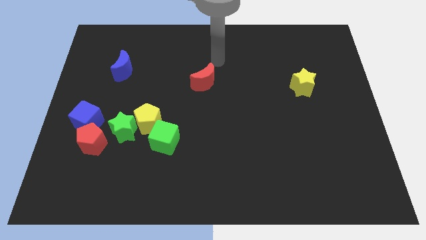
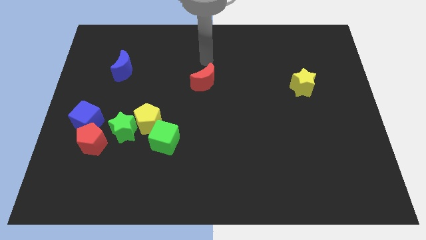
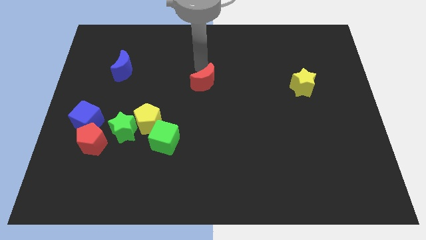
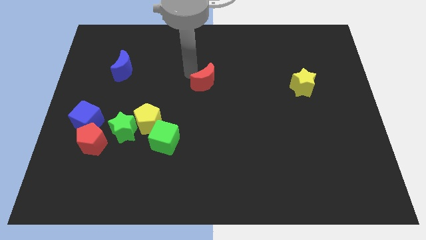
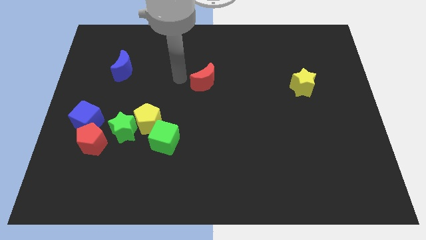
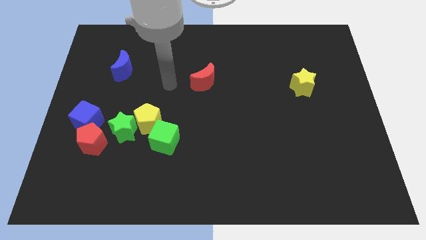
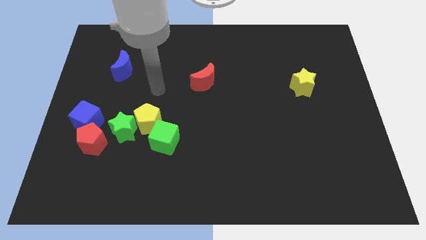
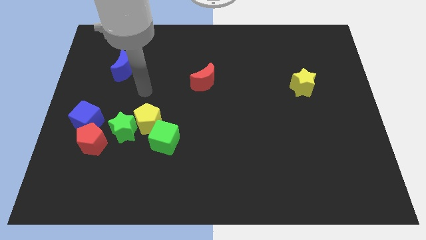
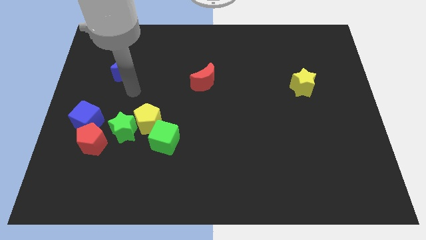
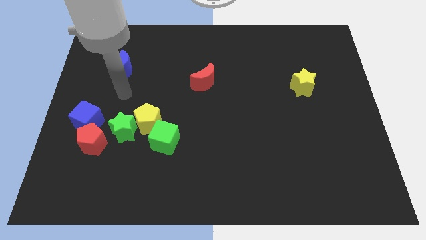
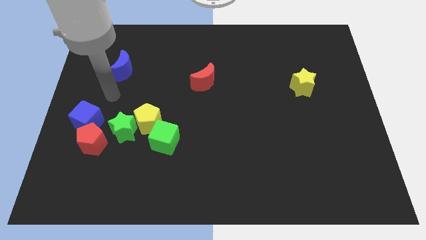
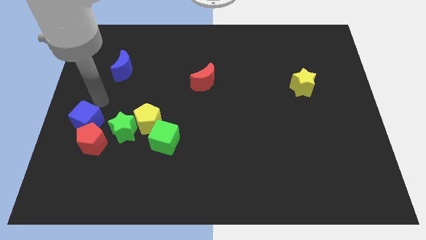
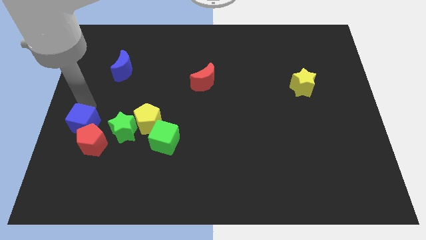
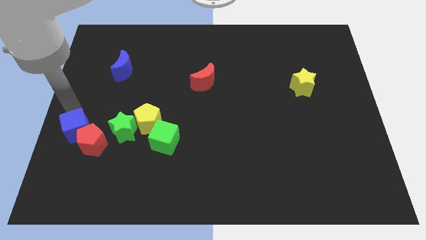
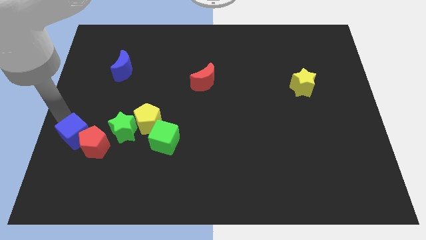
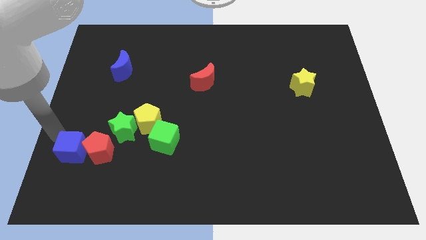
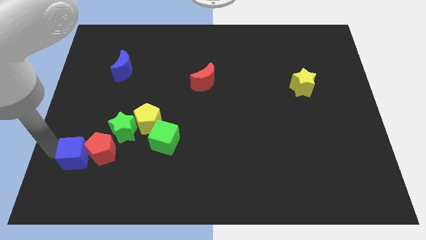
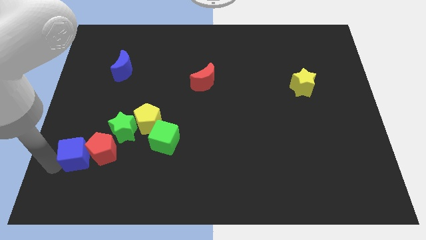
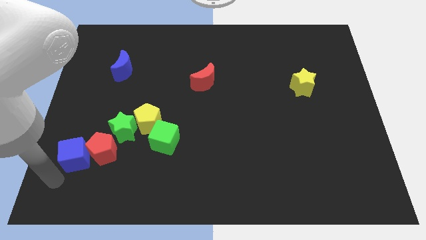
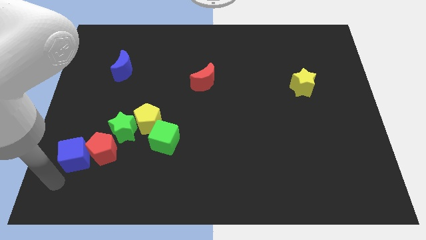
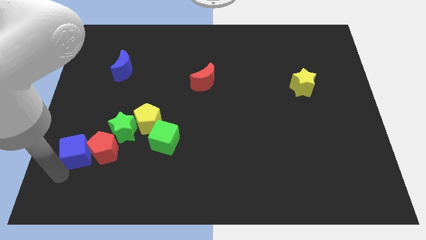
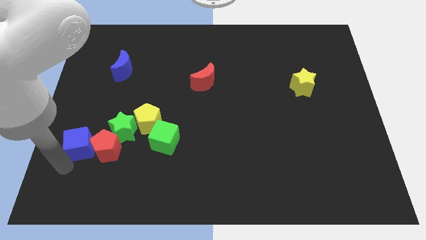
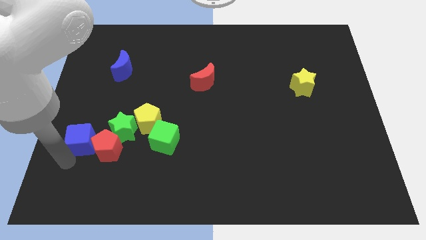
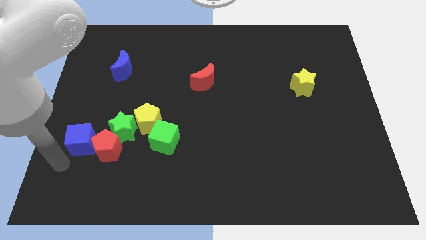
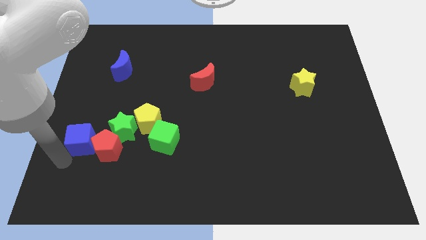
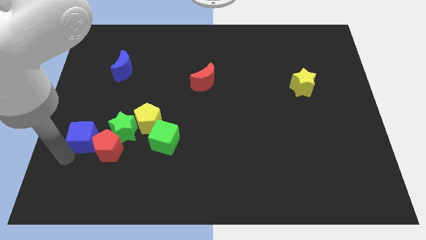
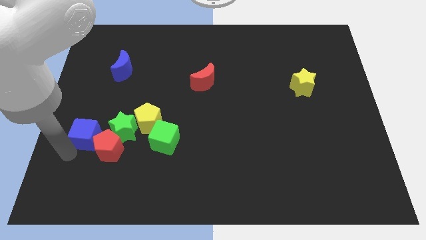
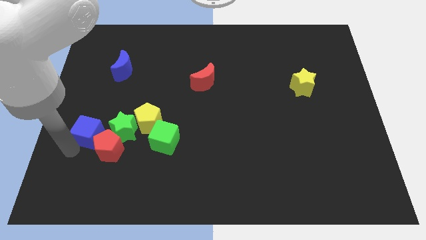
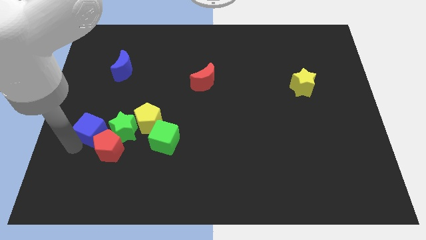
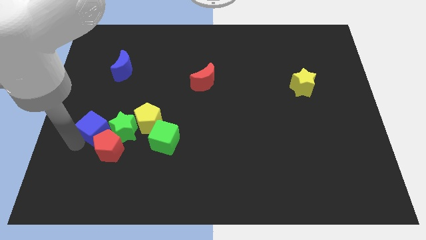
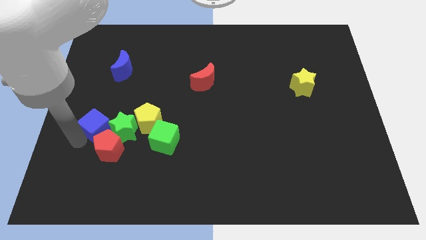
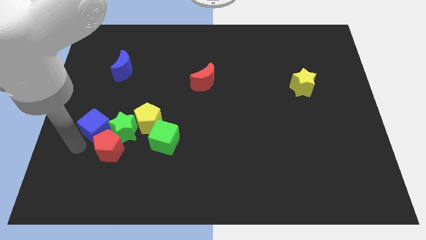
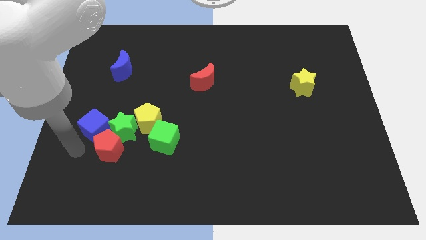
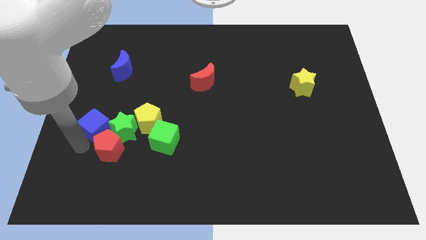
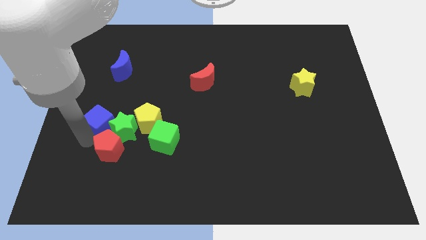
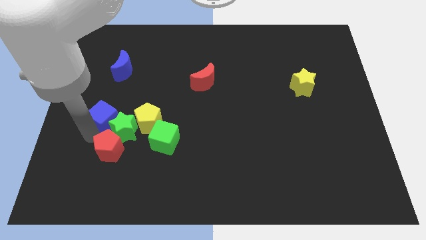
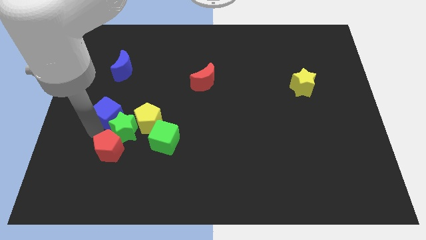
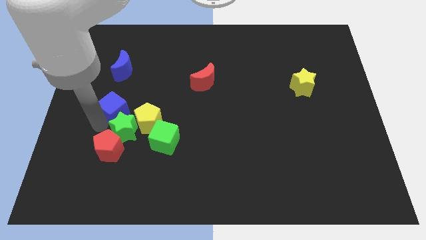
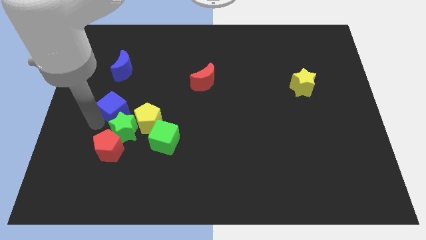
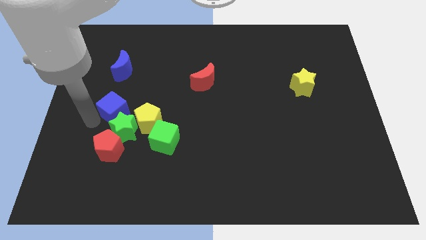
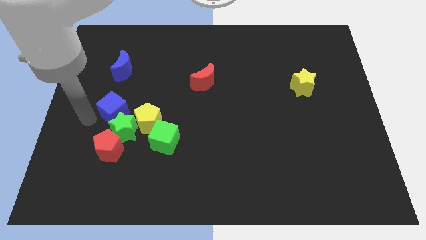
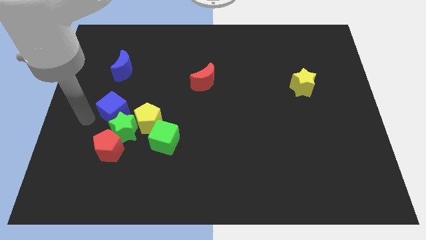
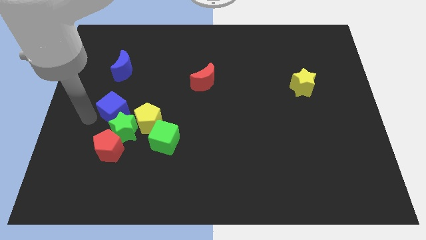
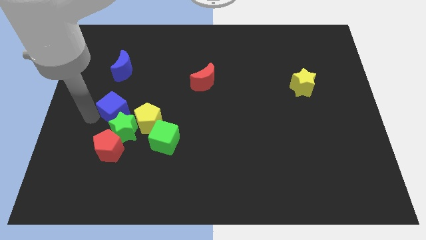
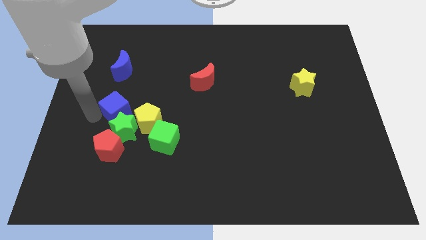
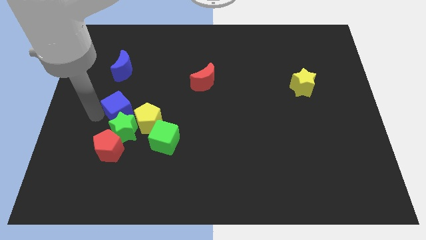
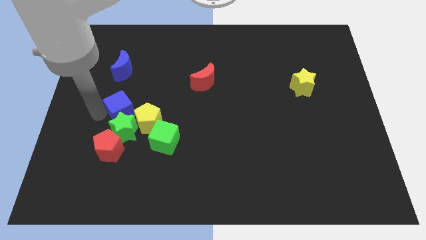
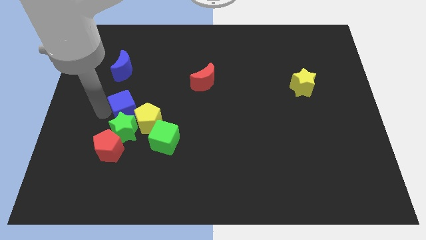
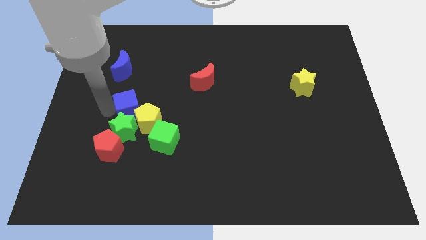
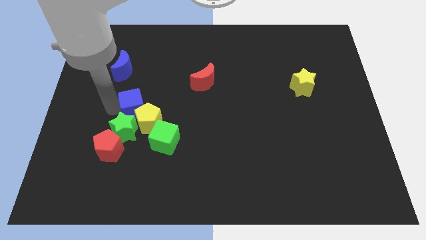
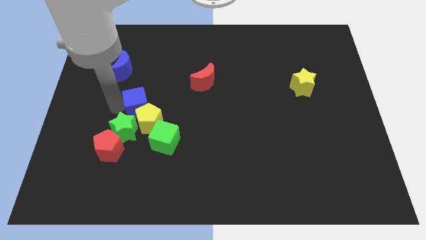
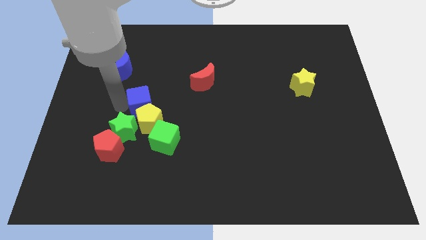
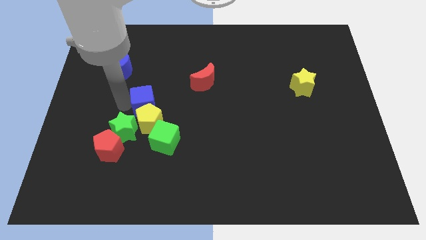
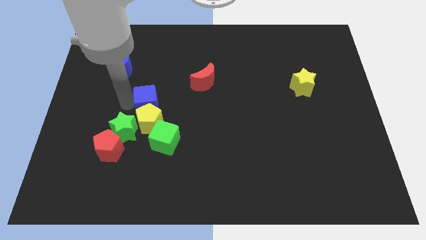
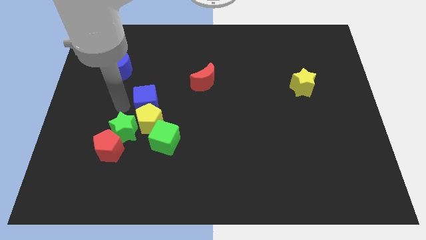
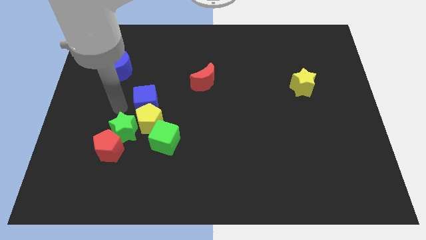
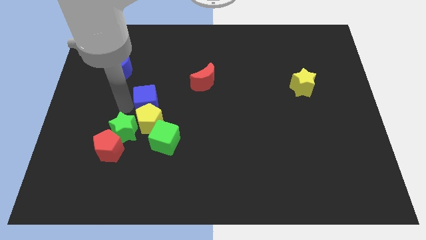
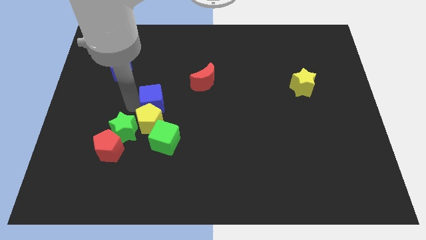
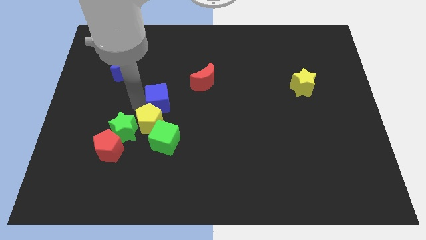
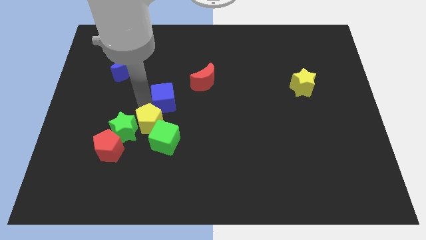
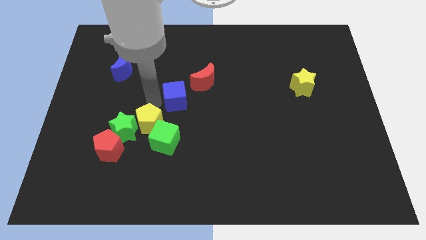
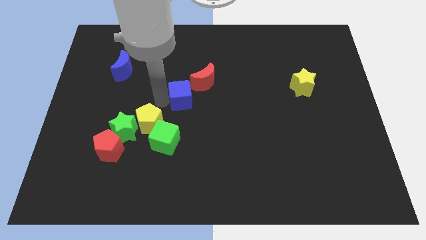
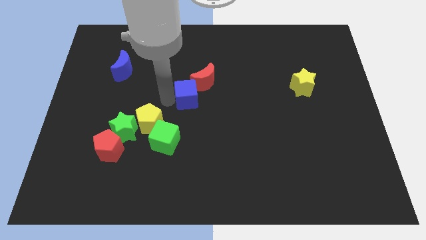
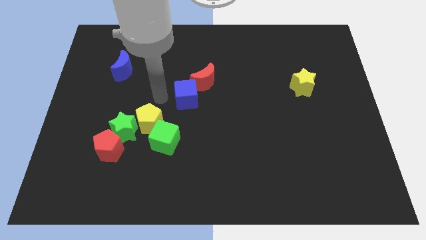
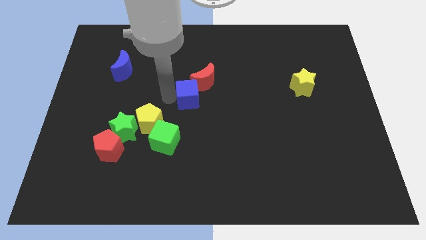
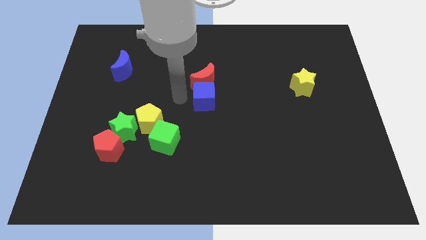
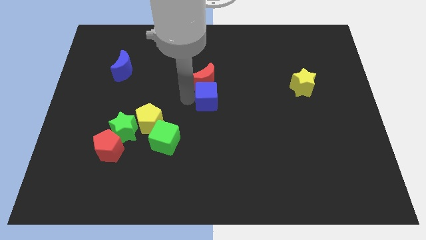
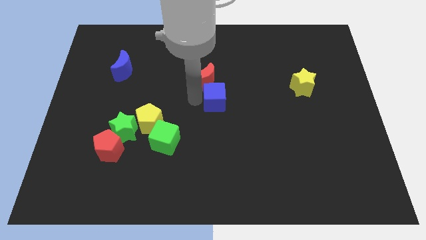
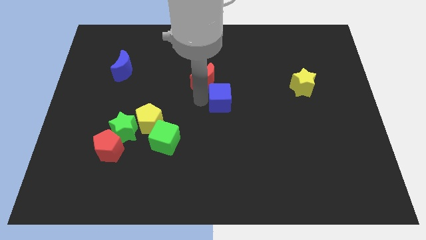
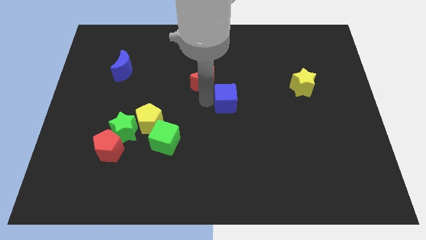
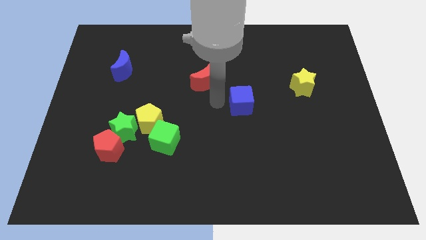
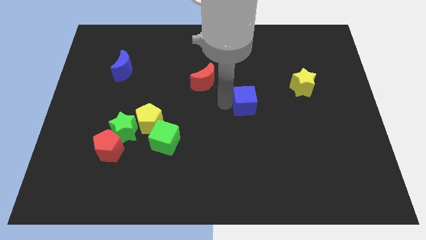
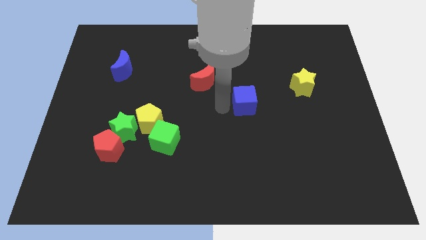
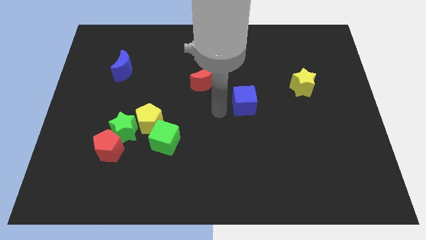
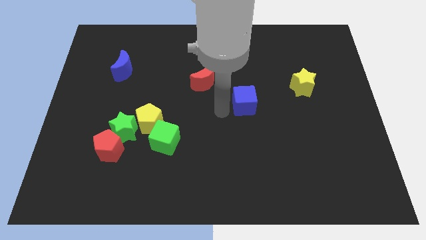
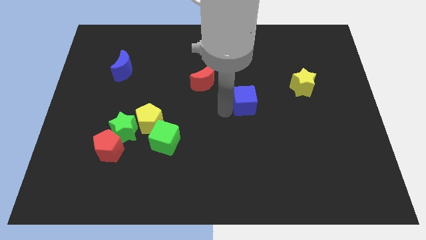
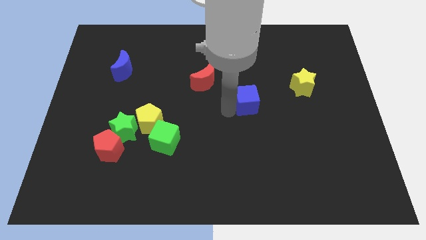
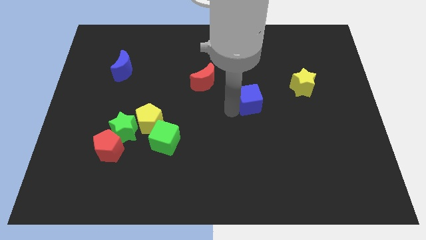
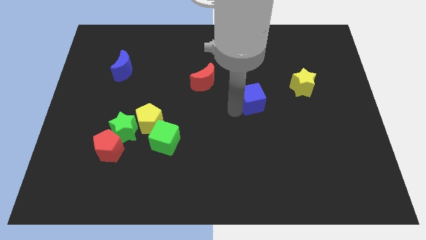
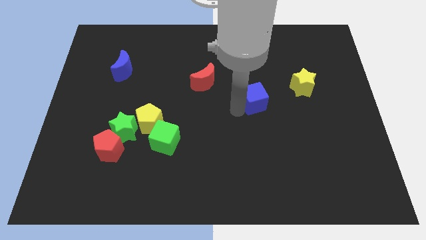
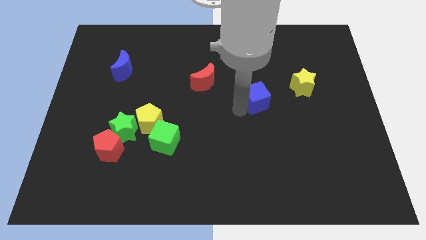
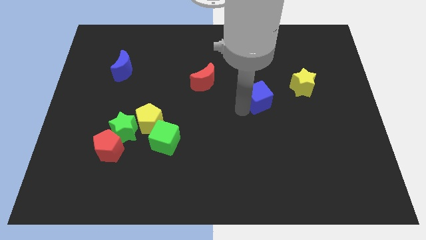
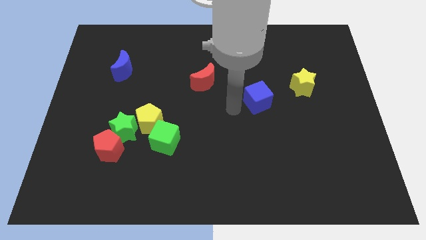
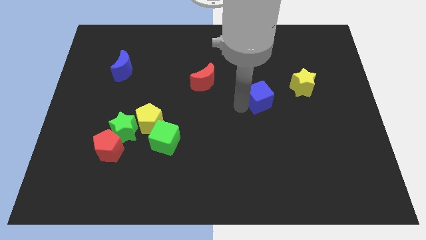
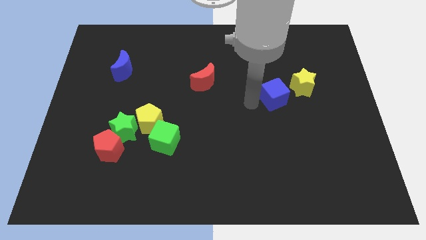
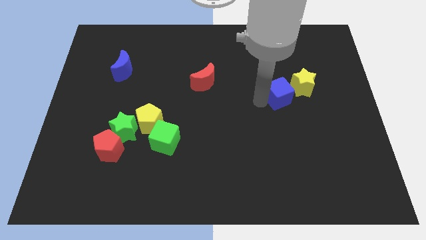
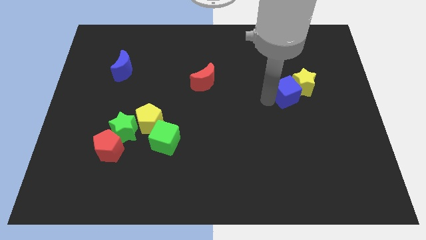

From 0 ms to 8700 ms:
slide the blue cube towards the yellow star
